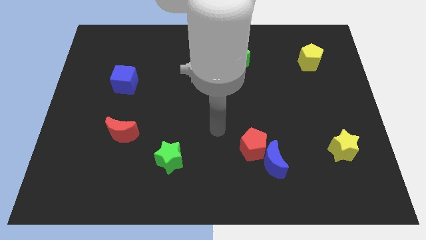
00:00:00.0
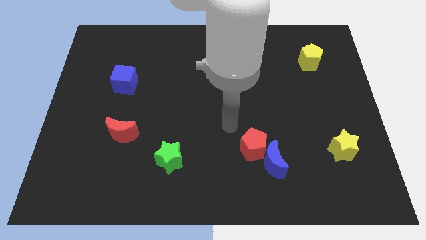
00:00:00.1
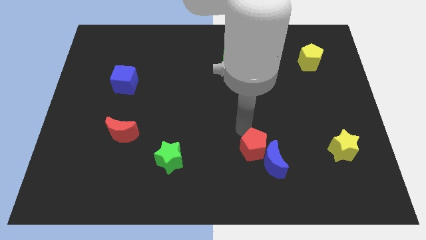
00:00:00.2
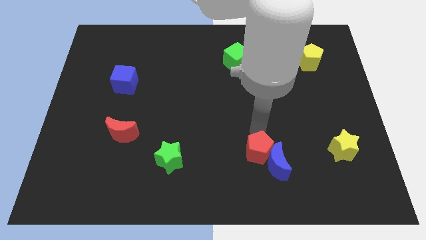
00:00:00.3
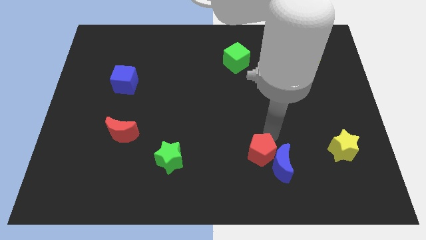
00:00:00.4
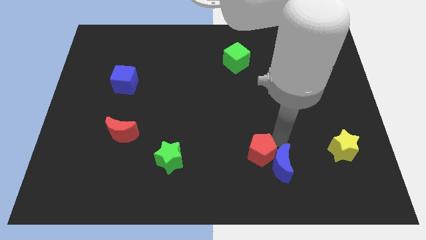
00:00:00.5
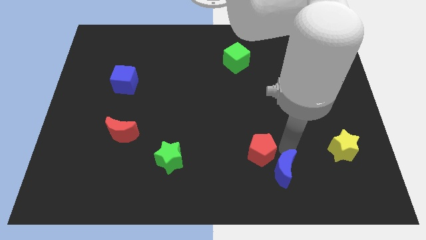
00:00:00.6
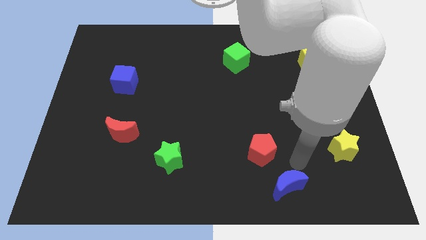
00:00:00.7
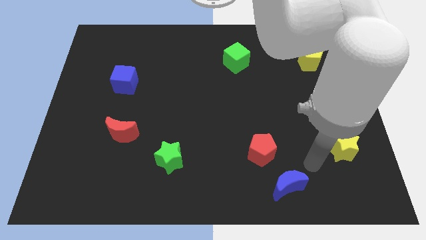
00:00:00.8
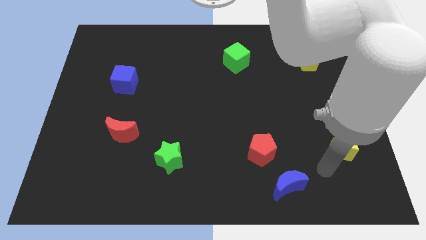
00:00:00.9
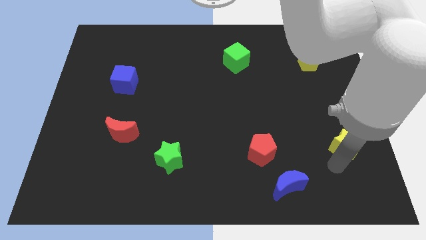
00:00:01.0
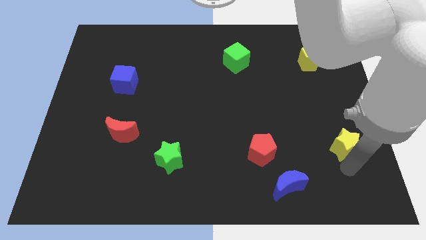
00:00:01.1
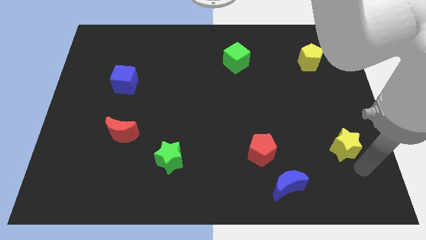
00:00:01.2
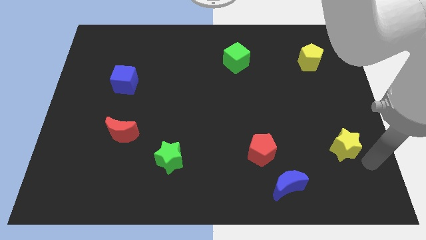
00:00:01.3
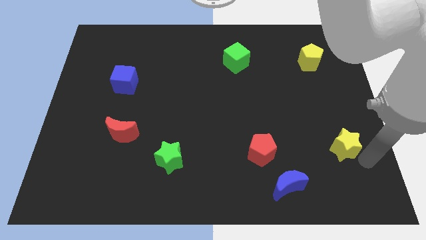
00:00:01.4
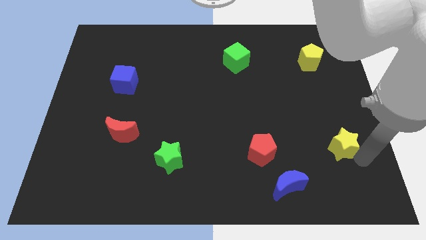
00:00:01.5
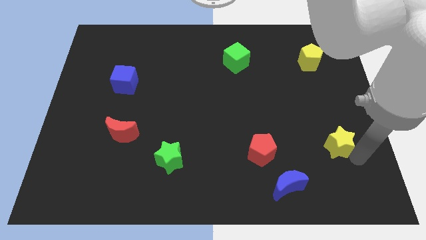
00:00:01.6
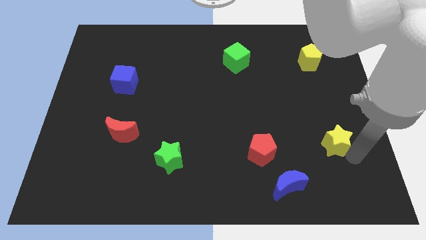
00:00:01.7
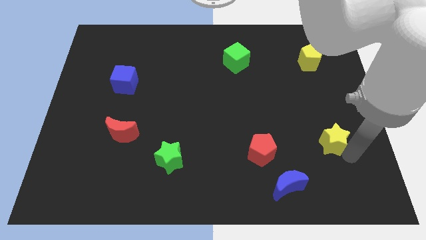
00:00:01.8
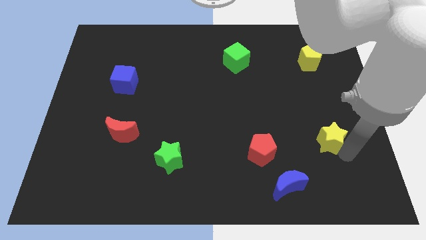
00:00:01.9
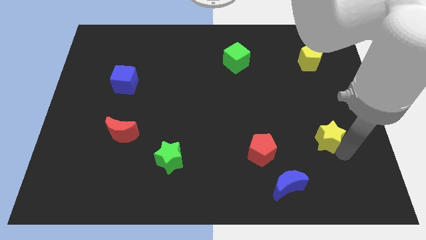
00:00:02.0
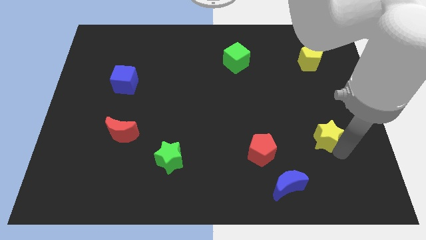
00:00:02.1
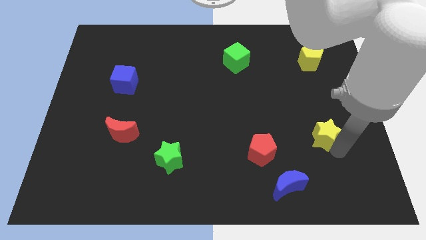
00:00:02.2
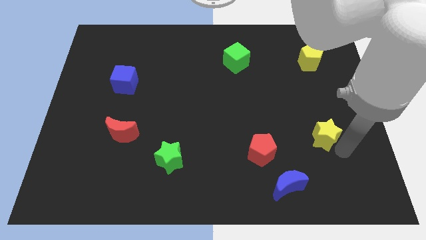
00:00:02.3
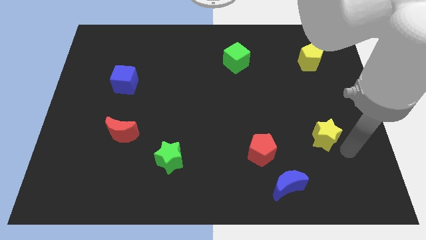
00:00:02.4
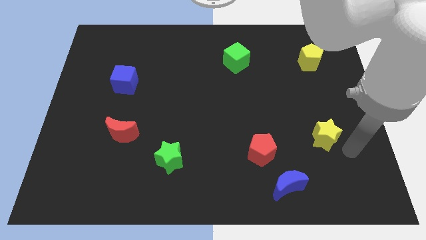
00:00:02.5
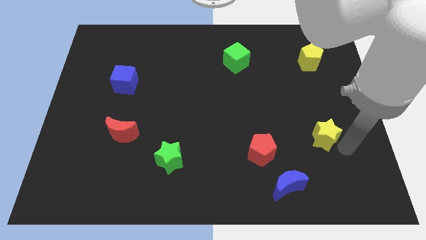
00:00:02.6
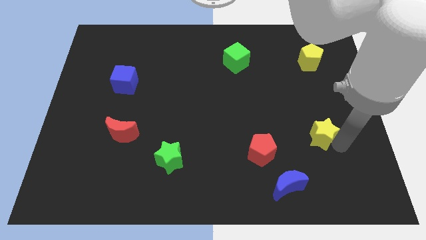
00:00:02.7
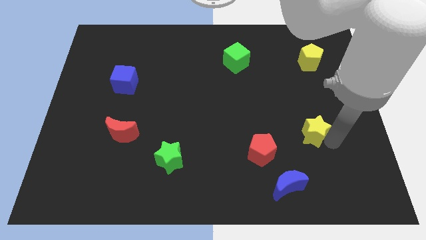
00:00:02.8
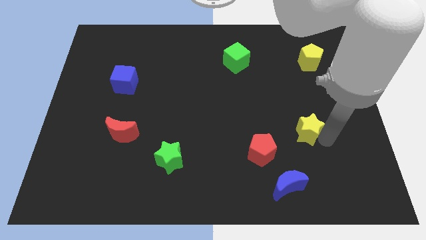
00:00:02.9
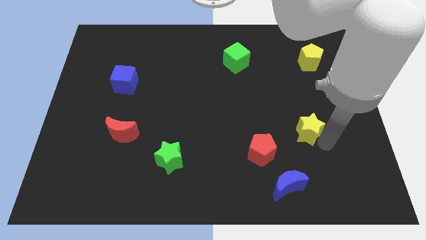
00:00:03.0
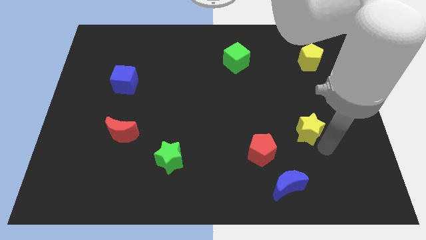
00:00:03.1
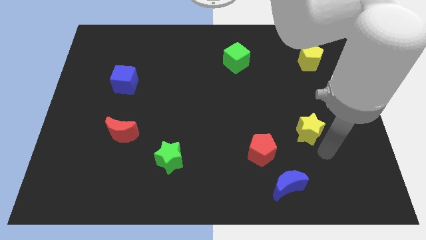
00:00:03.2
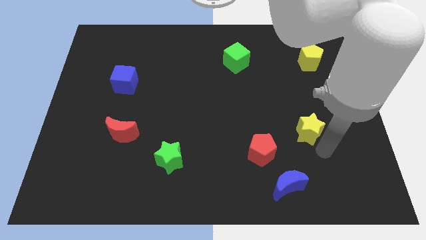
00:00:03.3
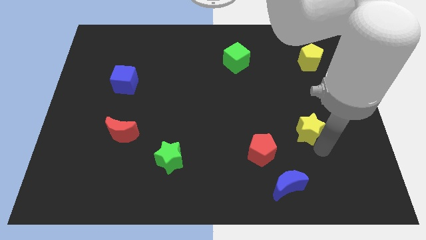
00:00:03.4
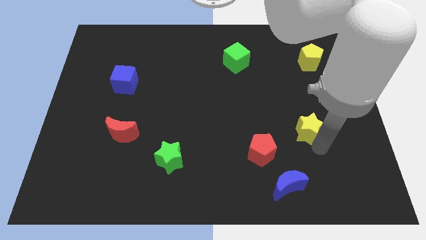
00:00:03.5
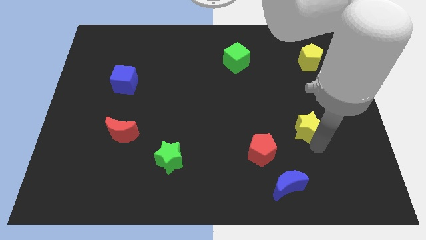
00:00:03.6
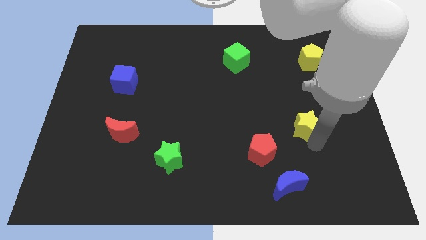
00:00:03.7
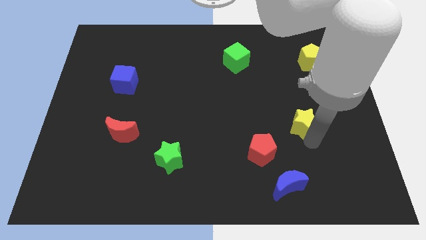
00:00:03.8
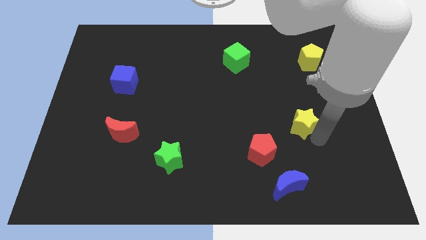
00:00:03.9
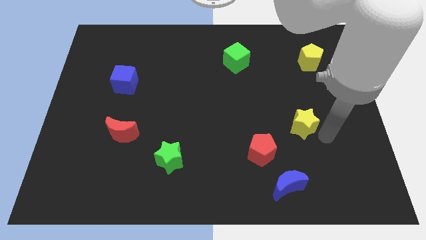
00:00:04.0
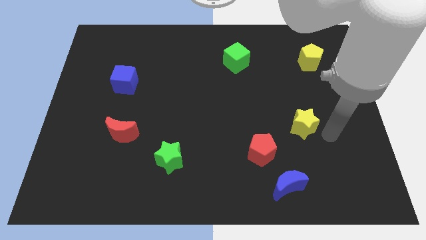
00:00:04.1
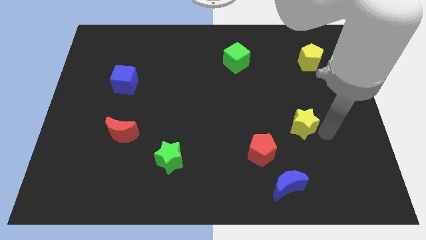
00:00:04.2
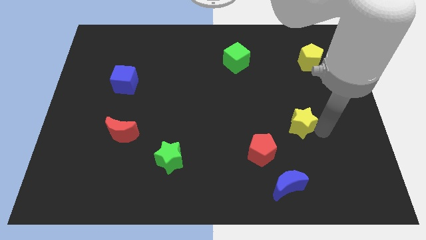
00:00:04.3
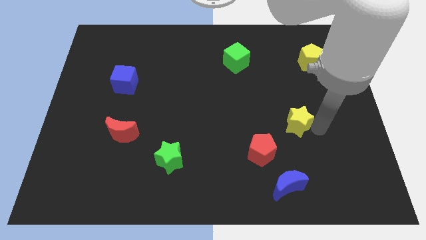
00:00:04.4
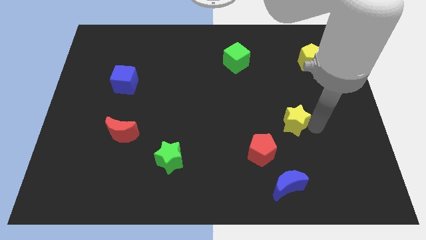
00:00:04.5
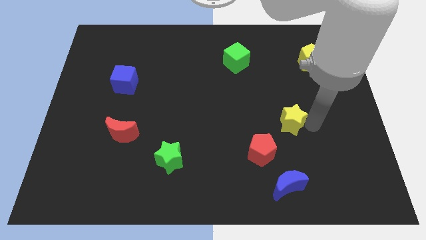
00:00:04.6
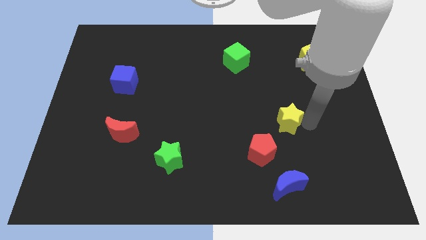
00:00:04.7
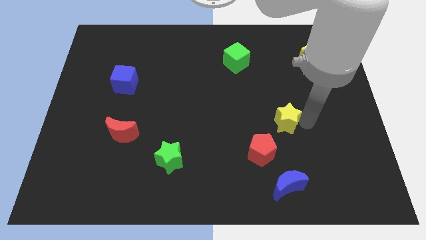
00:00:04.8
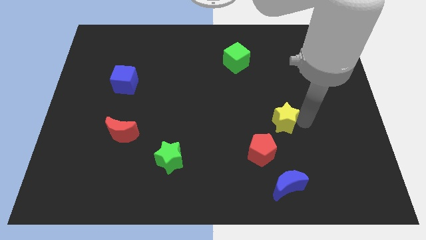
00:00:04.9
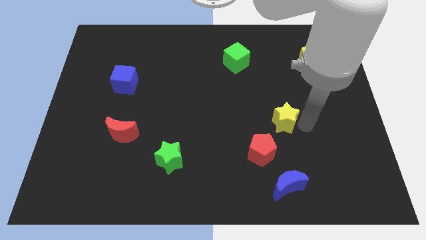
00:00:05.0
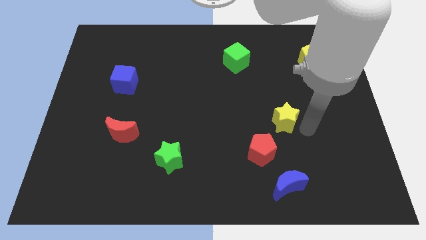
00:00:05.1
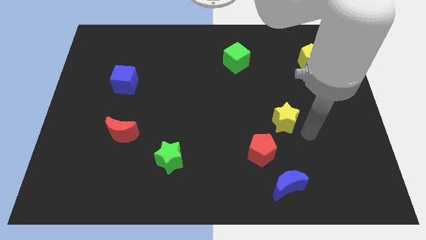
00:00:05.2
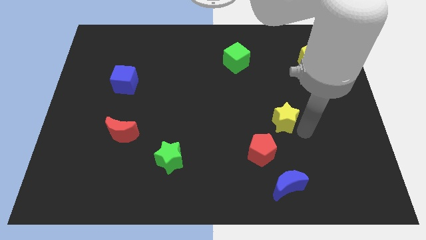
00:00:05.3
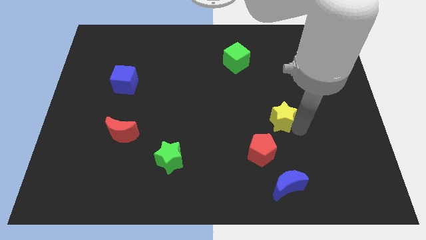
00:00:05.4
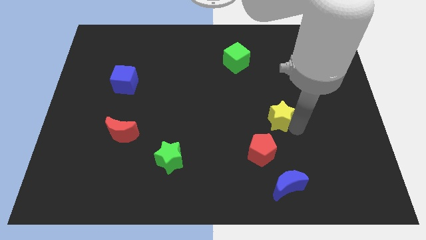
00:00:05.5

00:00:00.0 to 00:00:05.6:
slide the yellow star to the top side of the red pentagon

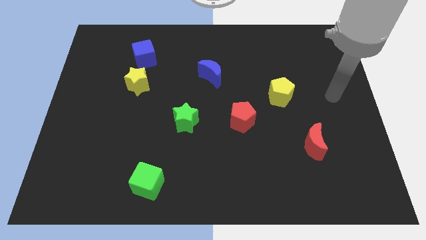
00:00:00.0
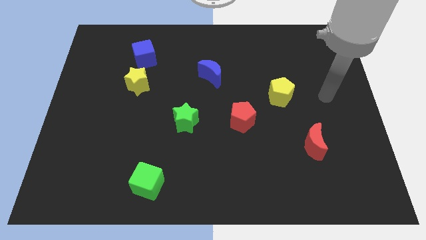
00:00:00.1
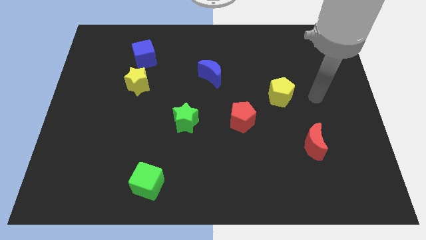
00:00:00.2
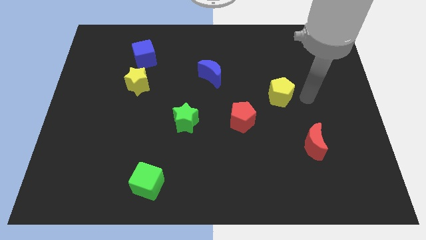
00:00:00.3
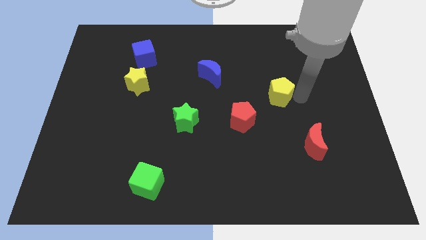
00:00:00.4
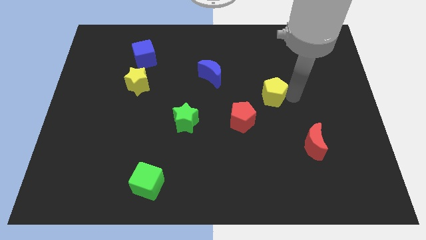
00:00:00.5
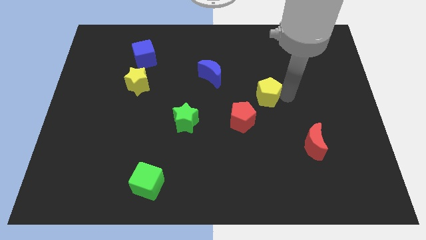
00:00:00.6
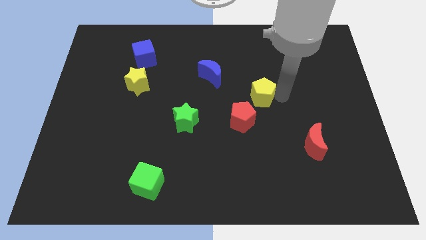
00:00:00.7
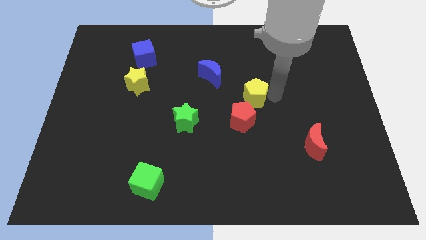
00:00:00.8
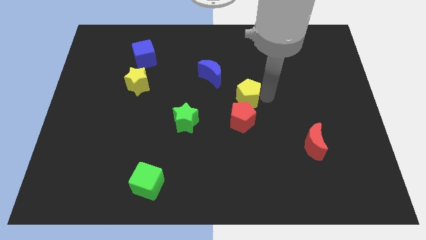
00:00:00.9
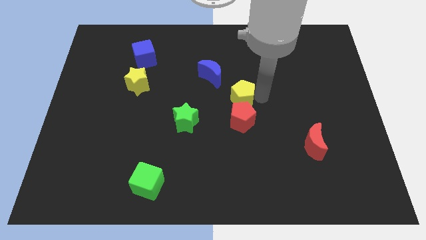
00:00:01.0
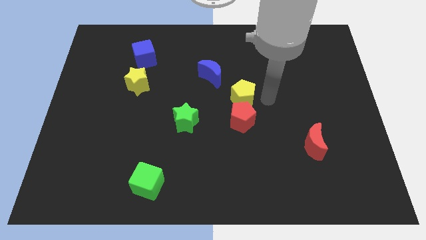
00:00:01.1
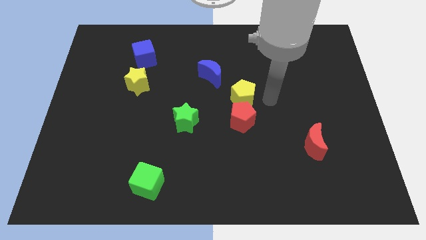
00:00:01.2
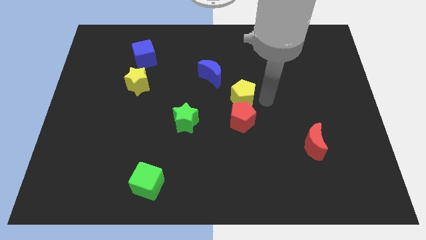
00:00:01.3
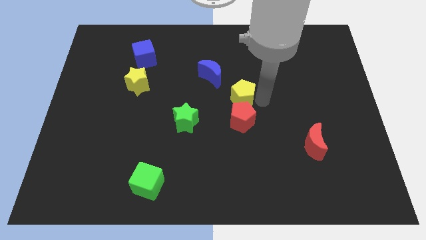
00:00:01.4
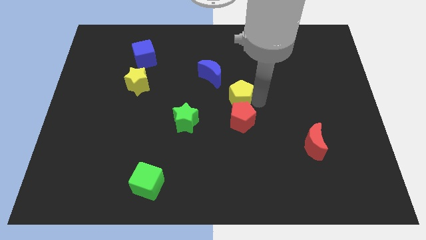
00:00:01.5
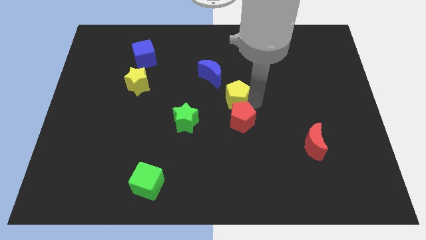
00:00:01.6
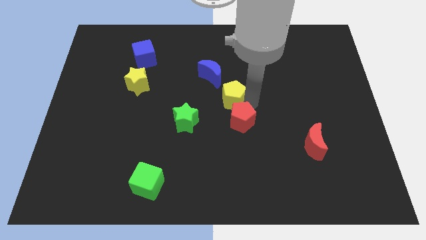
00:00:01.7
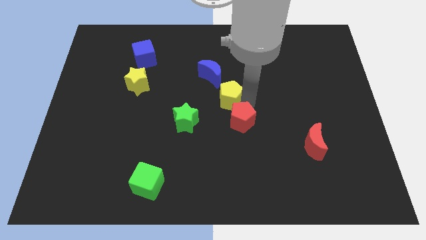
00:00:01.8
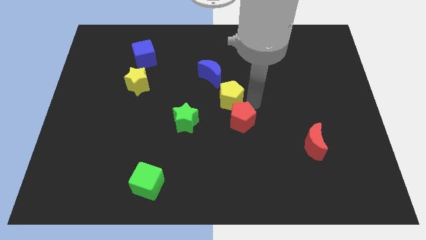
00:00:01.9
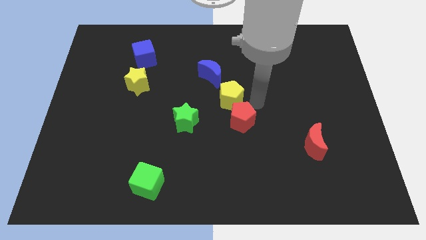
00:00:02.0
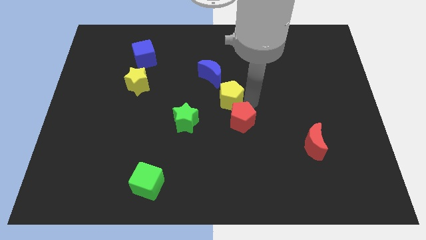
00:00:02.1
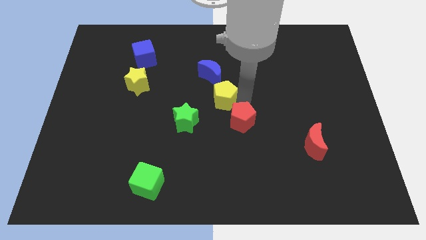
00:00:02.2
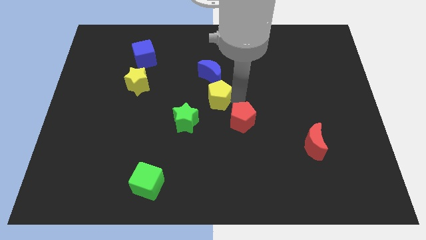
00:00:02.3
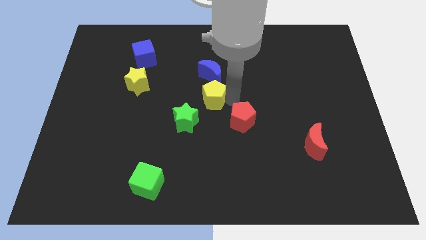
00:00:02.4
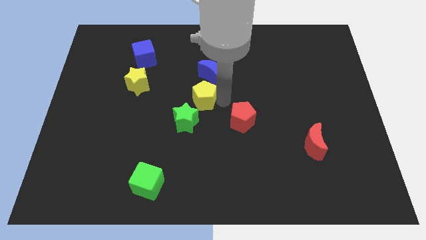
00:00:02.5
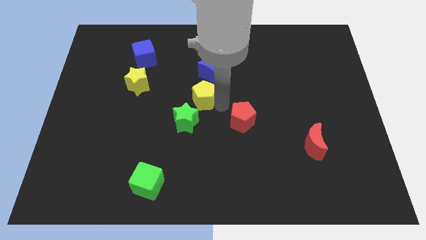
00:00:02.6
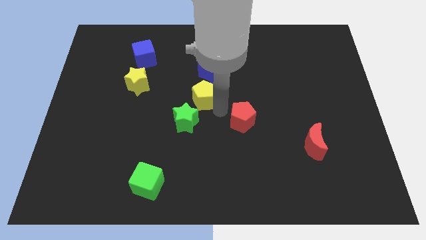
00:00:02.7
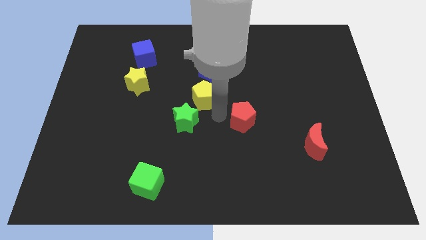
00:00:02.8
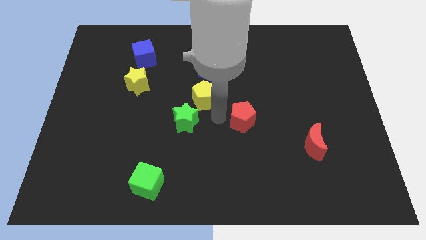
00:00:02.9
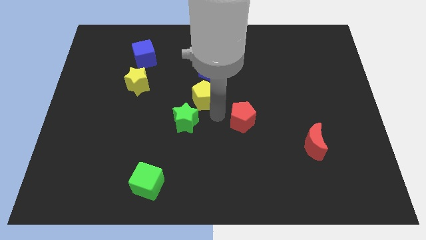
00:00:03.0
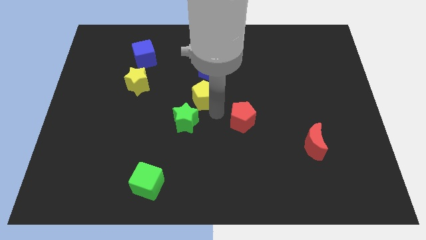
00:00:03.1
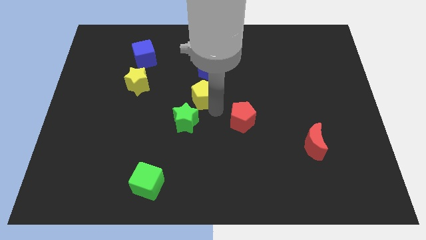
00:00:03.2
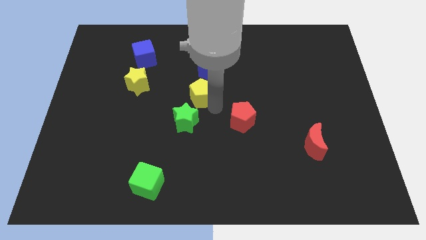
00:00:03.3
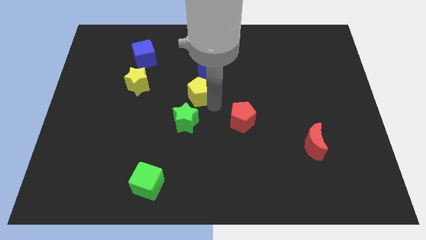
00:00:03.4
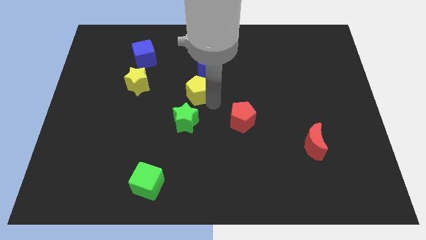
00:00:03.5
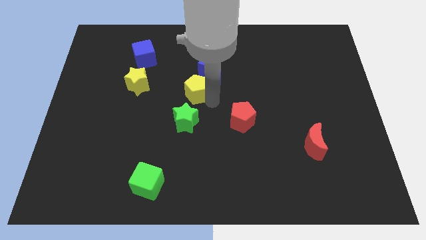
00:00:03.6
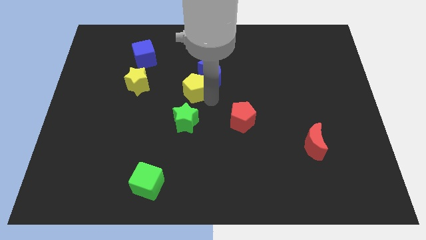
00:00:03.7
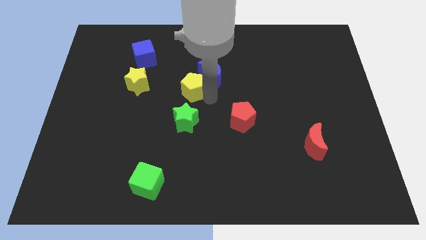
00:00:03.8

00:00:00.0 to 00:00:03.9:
put the yellow pentagon to the left side of the blue moon
